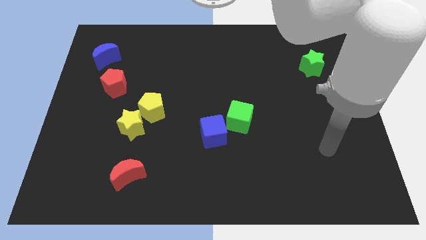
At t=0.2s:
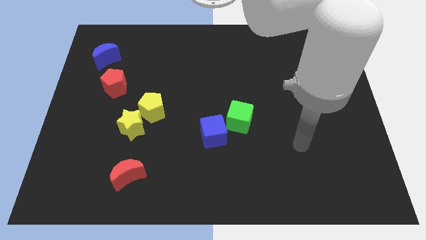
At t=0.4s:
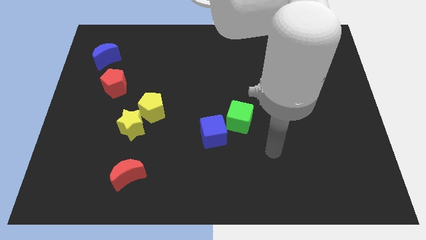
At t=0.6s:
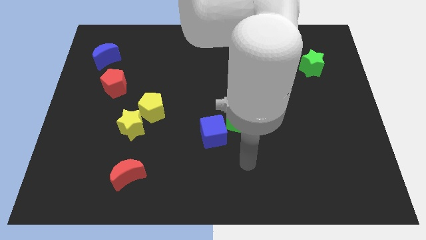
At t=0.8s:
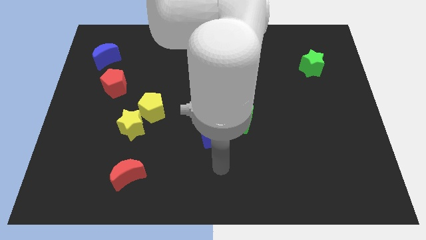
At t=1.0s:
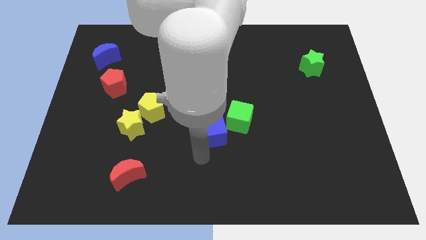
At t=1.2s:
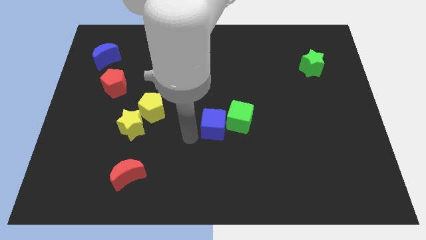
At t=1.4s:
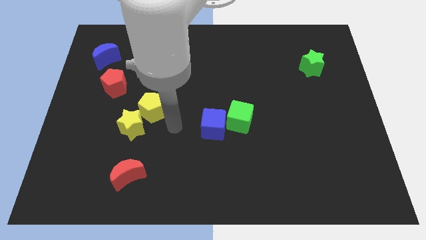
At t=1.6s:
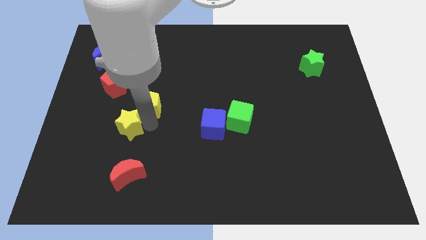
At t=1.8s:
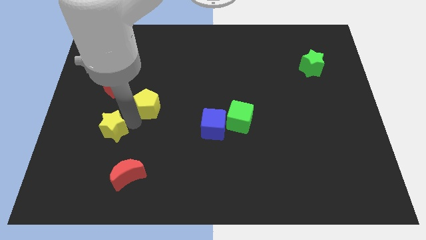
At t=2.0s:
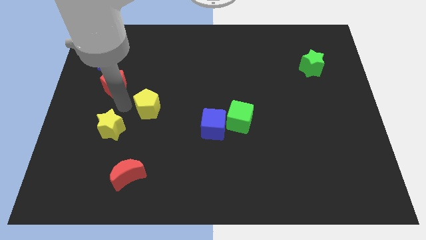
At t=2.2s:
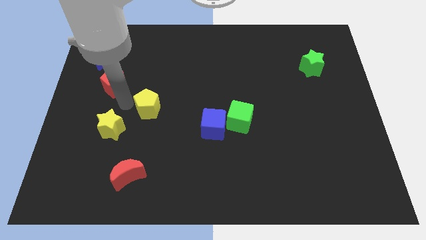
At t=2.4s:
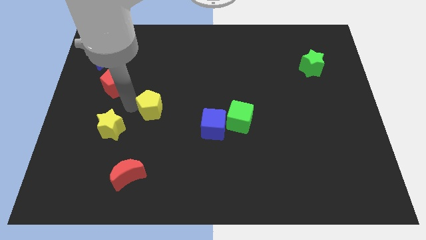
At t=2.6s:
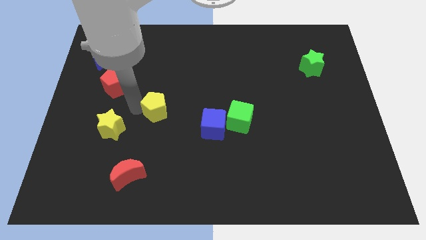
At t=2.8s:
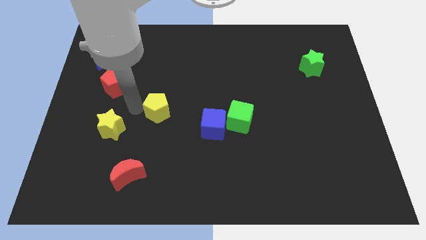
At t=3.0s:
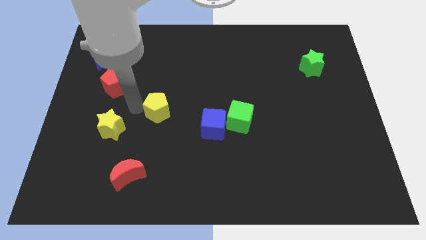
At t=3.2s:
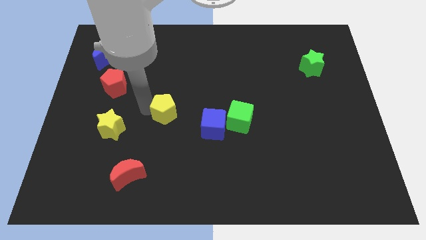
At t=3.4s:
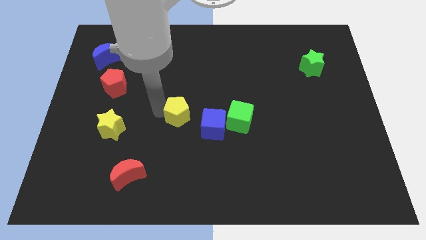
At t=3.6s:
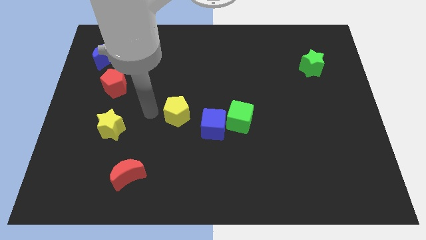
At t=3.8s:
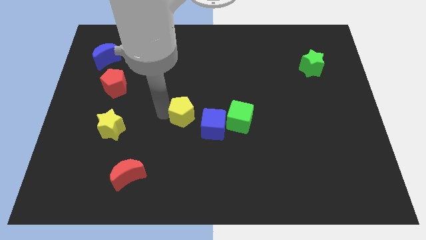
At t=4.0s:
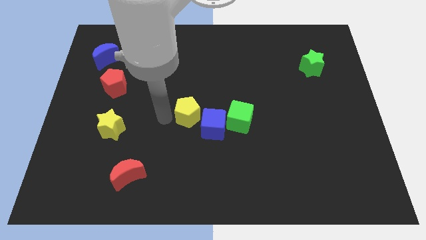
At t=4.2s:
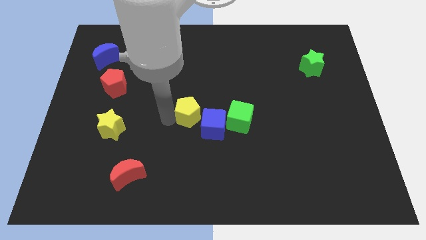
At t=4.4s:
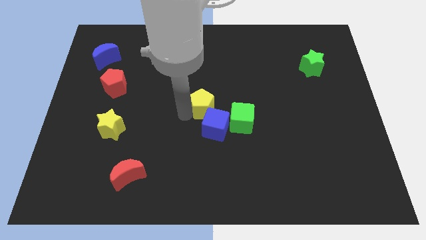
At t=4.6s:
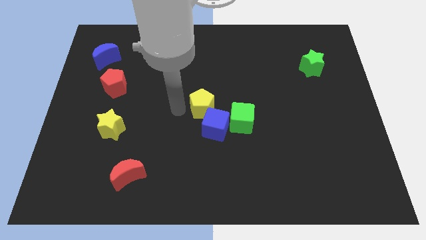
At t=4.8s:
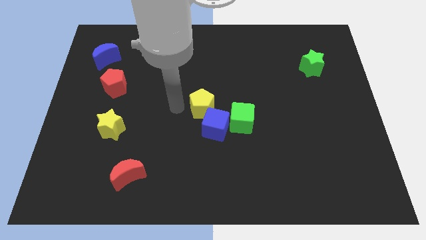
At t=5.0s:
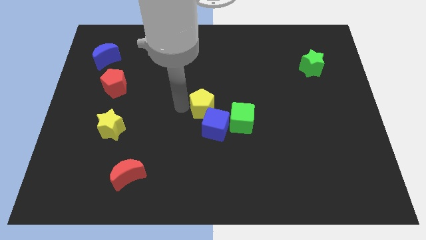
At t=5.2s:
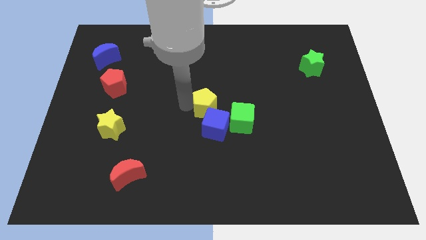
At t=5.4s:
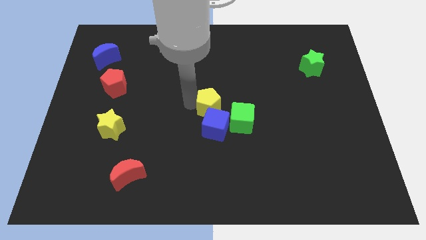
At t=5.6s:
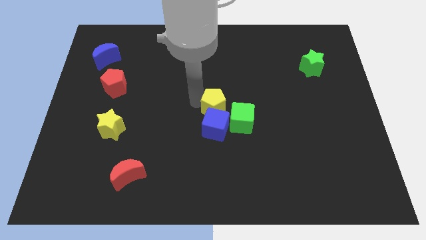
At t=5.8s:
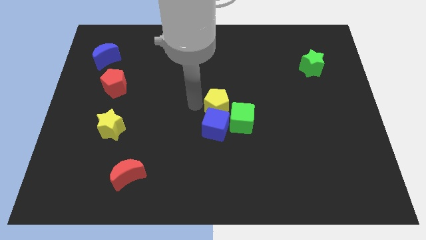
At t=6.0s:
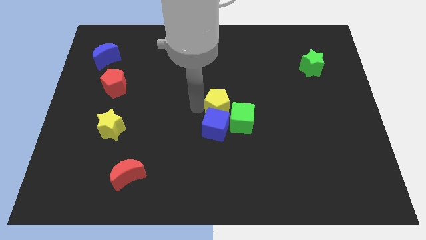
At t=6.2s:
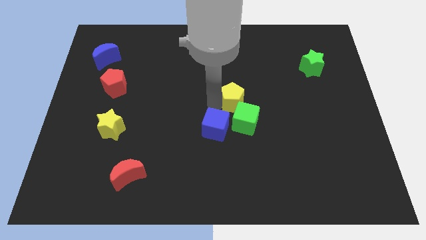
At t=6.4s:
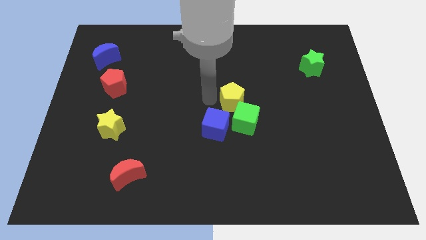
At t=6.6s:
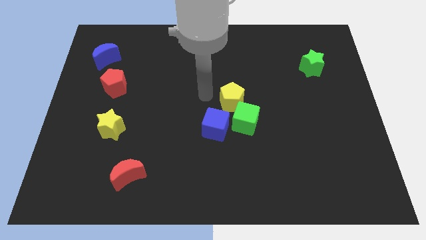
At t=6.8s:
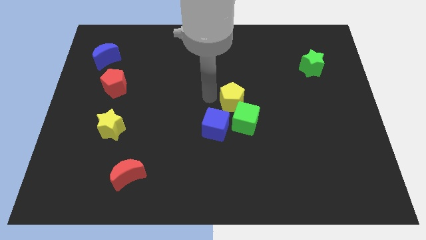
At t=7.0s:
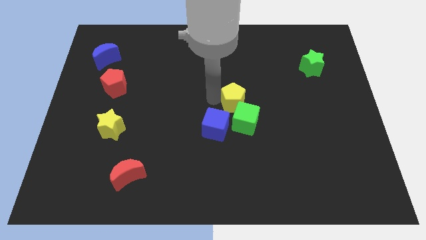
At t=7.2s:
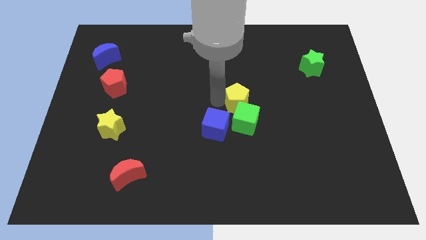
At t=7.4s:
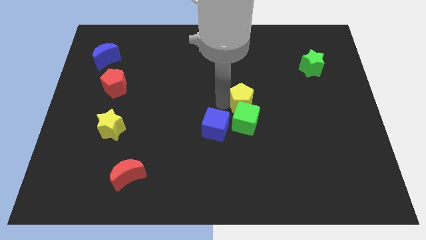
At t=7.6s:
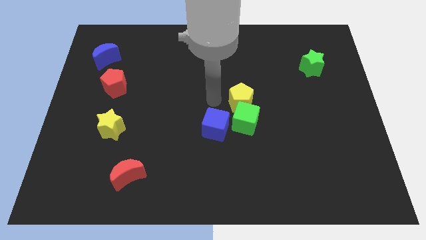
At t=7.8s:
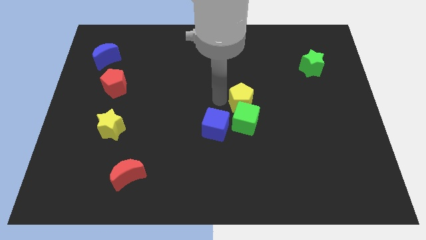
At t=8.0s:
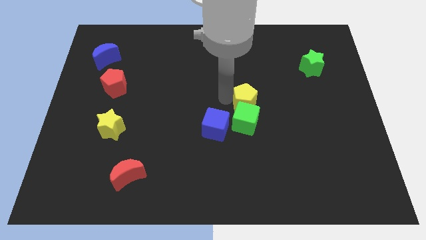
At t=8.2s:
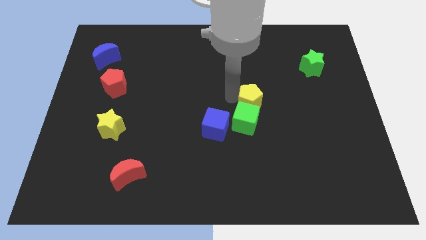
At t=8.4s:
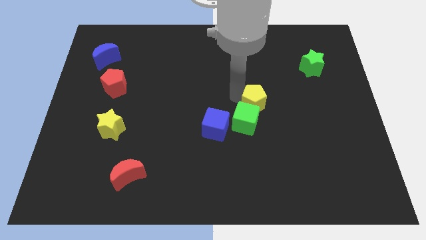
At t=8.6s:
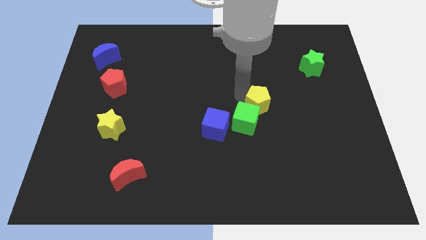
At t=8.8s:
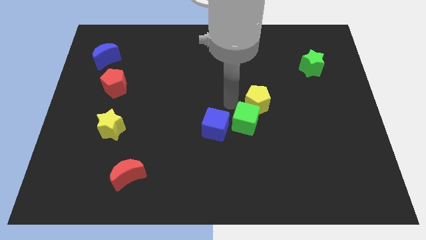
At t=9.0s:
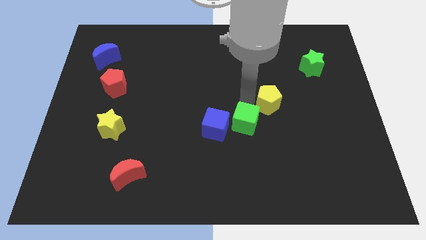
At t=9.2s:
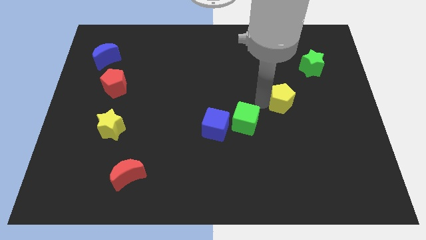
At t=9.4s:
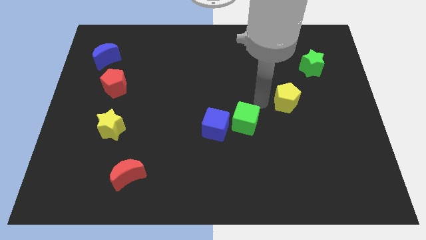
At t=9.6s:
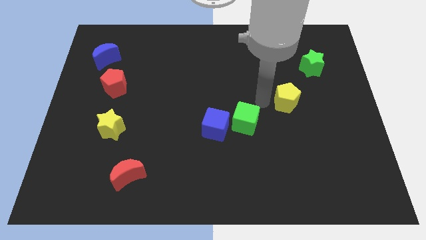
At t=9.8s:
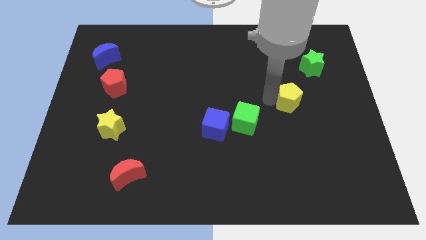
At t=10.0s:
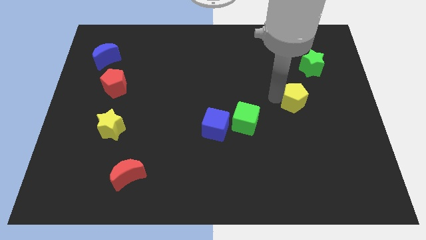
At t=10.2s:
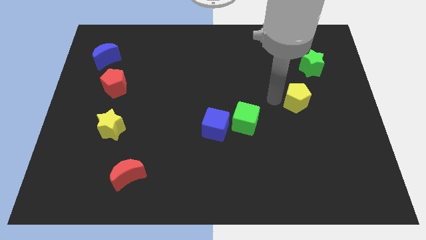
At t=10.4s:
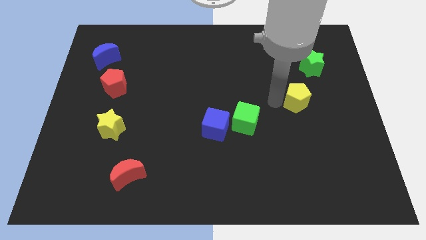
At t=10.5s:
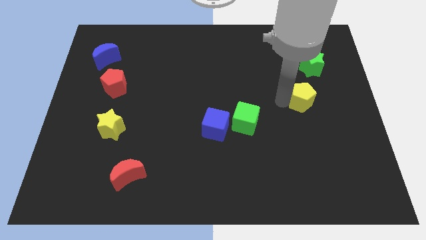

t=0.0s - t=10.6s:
push the yellow pentagon to the bottom side of the green star

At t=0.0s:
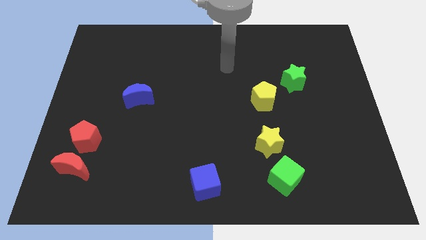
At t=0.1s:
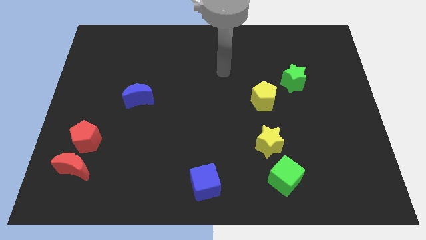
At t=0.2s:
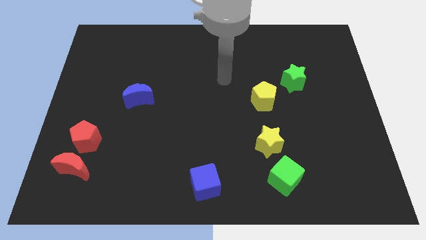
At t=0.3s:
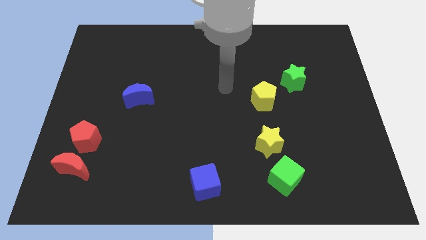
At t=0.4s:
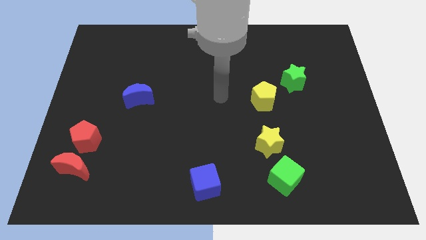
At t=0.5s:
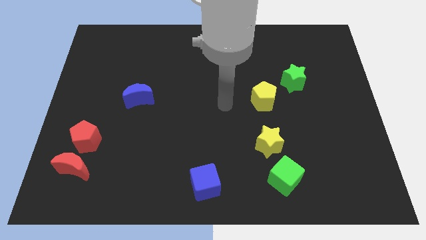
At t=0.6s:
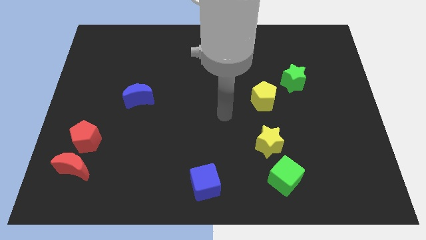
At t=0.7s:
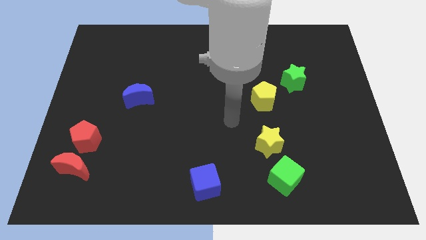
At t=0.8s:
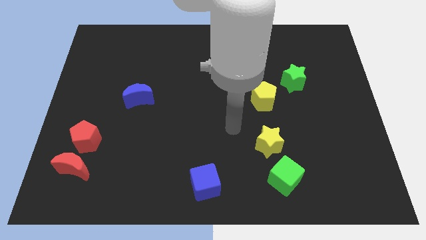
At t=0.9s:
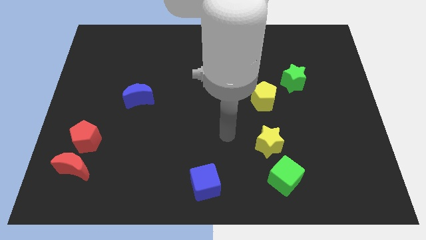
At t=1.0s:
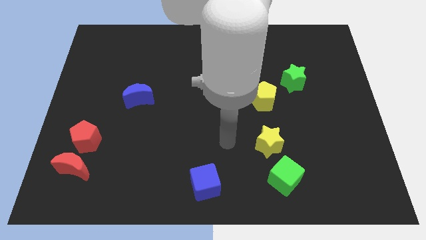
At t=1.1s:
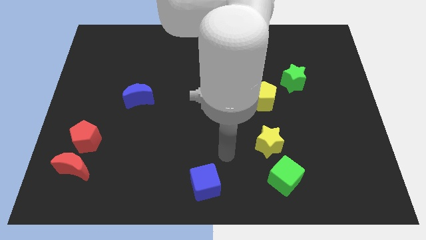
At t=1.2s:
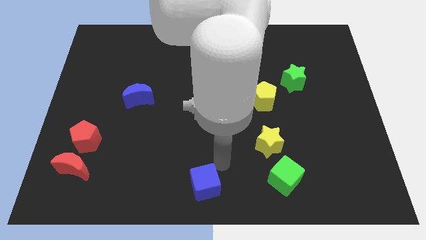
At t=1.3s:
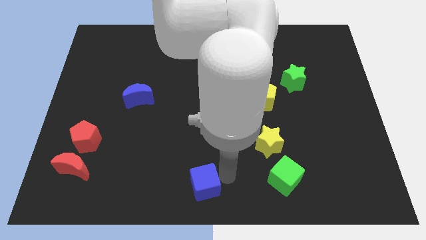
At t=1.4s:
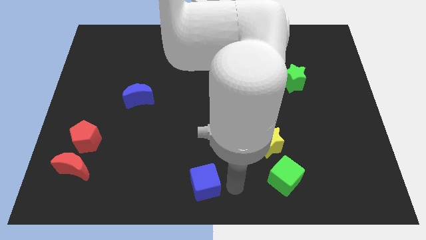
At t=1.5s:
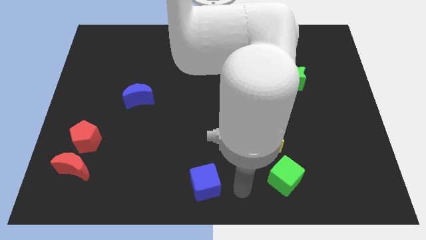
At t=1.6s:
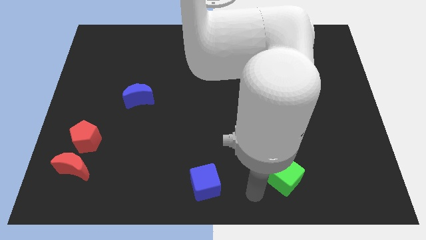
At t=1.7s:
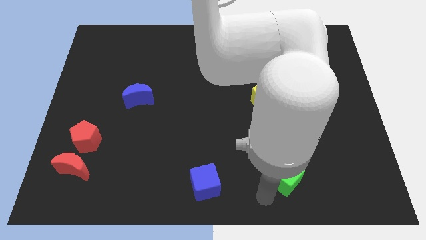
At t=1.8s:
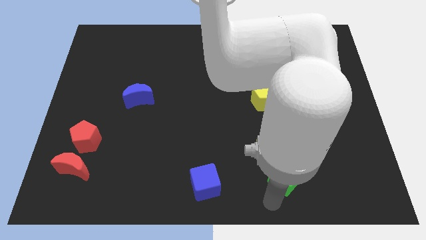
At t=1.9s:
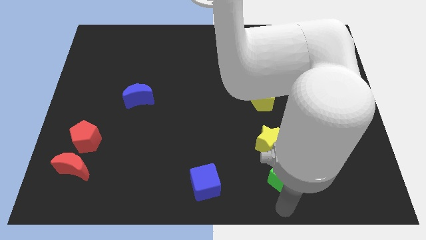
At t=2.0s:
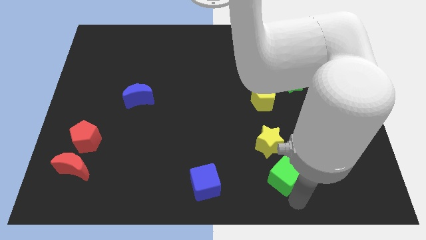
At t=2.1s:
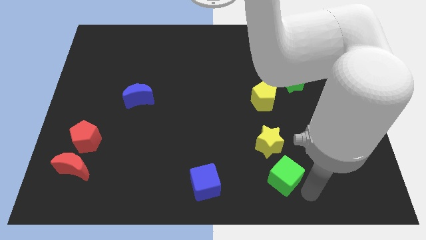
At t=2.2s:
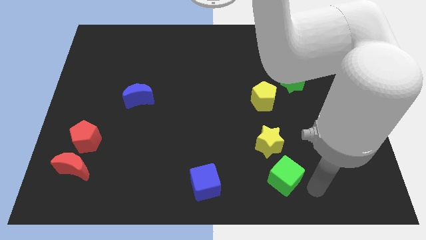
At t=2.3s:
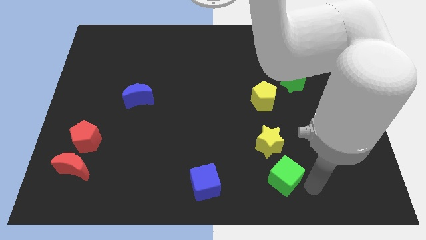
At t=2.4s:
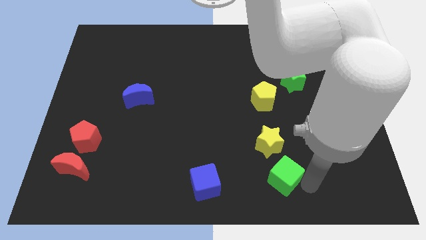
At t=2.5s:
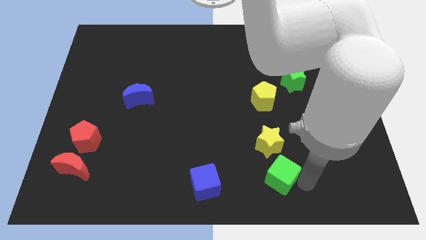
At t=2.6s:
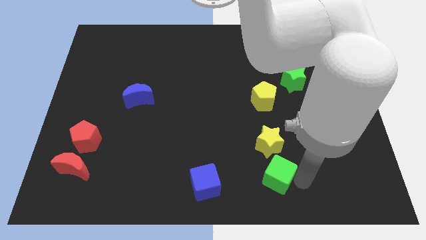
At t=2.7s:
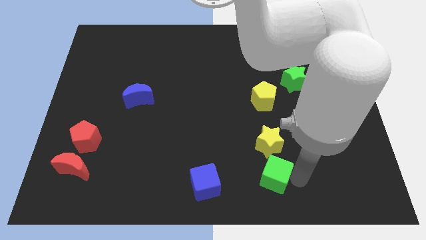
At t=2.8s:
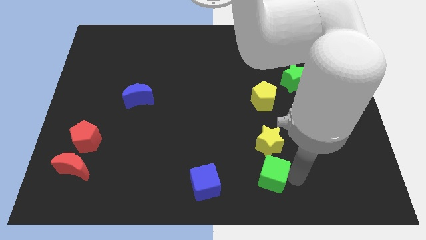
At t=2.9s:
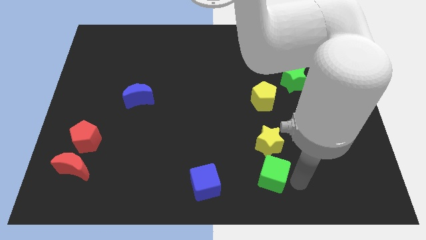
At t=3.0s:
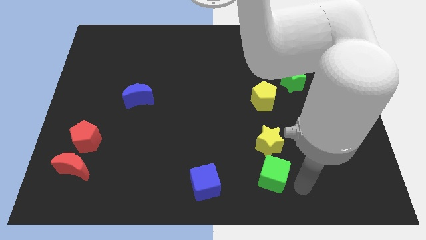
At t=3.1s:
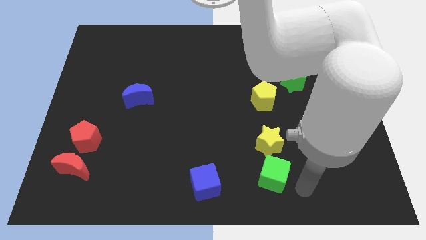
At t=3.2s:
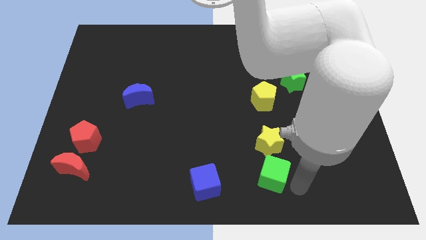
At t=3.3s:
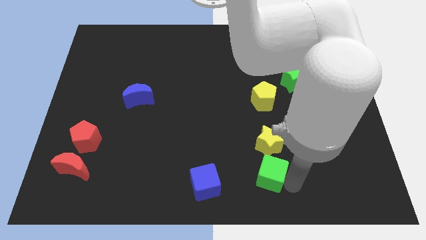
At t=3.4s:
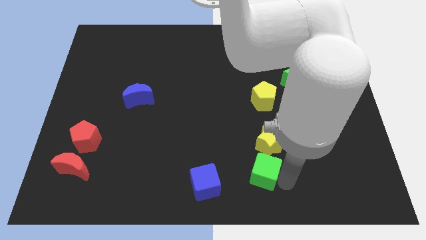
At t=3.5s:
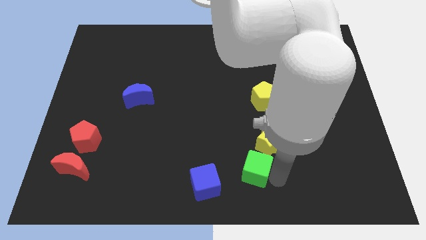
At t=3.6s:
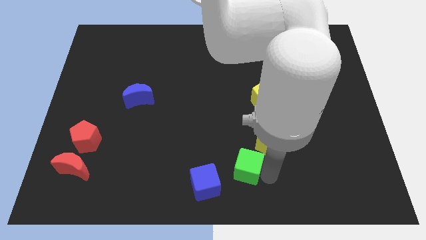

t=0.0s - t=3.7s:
put the green cube to the top right of the blue cube
